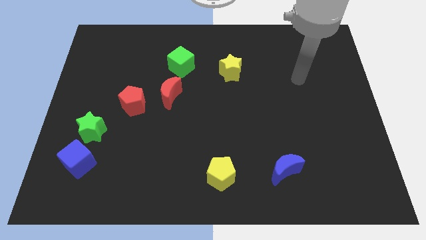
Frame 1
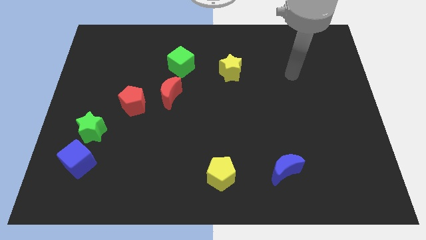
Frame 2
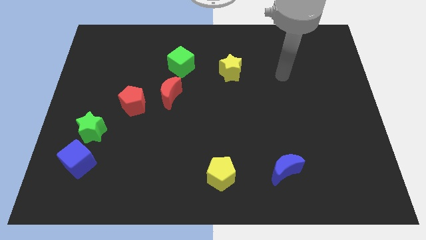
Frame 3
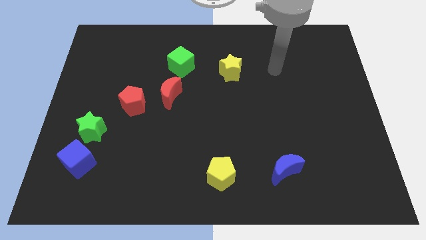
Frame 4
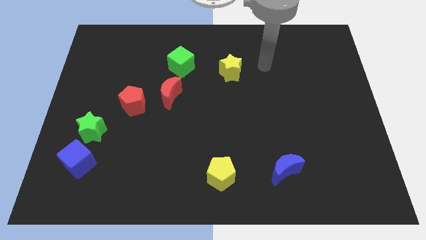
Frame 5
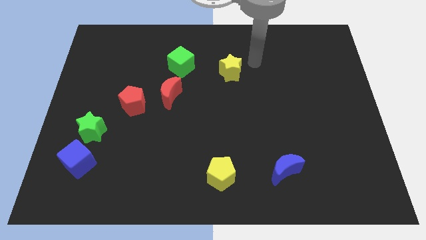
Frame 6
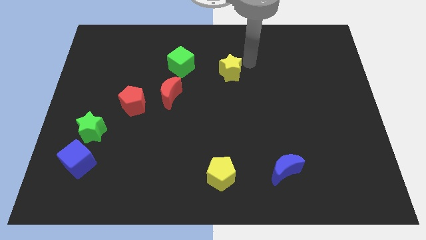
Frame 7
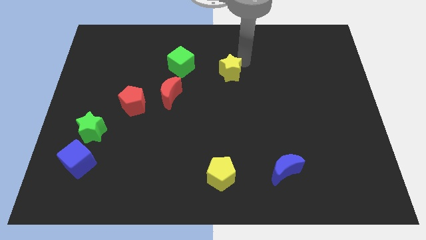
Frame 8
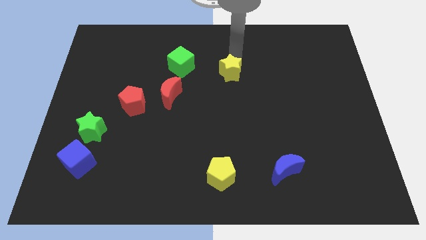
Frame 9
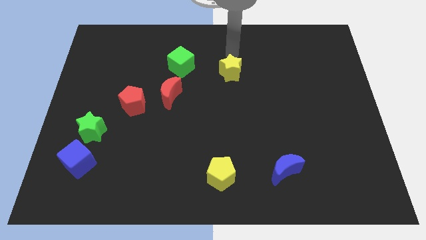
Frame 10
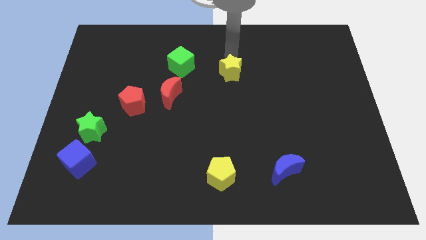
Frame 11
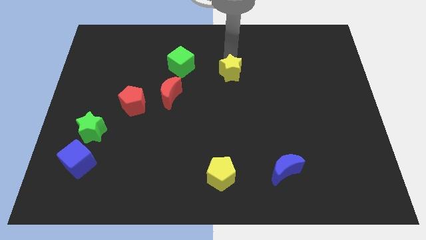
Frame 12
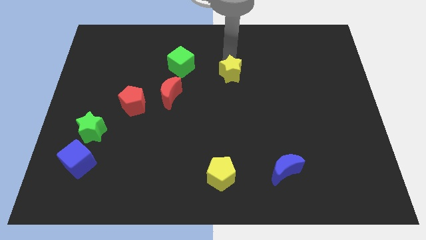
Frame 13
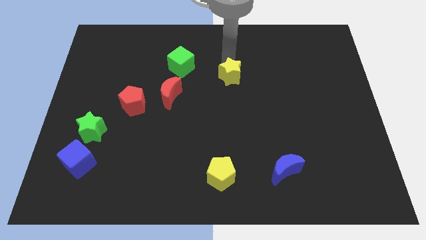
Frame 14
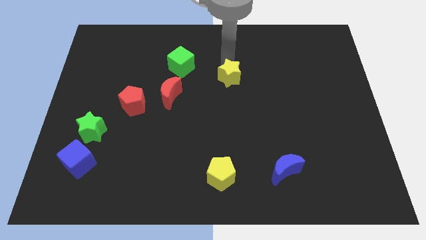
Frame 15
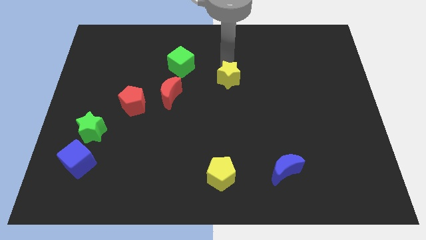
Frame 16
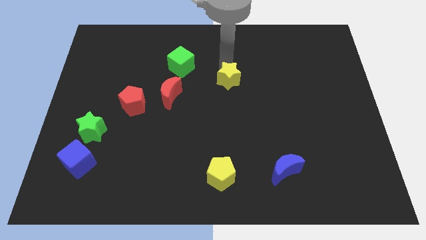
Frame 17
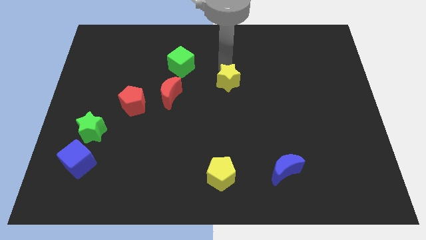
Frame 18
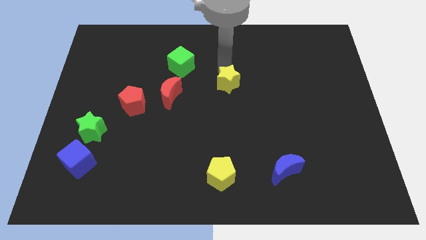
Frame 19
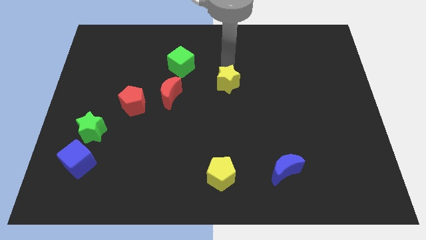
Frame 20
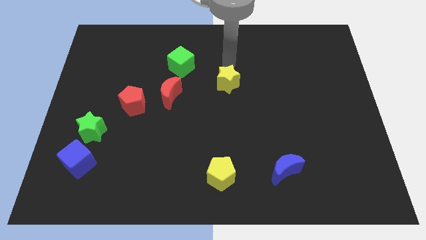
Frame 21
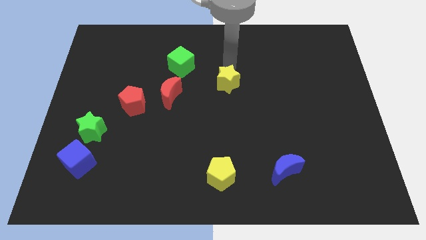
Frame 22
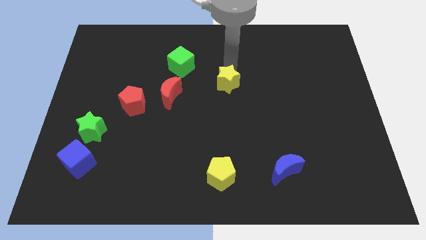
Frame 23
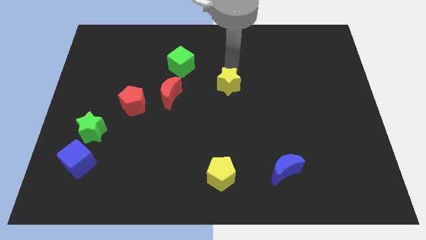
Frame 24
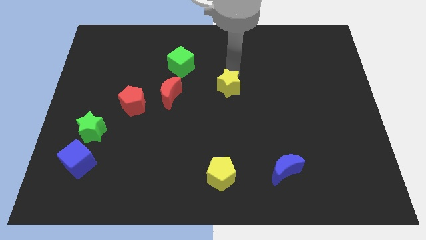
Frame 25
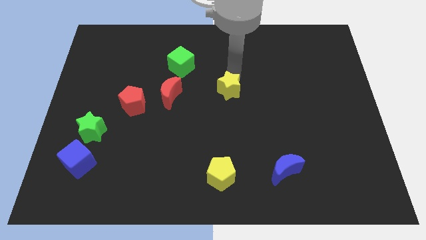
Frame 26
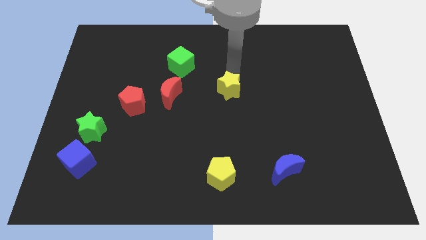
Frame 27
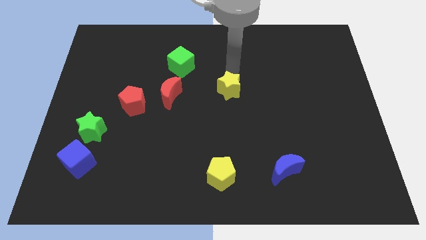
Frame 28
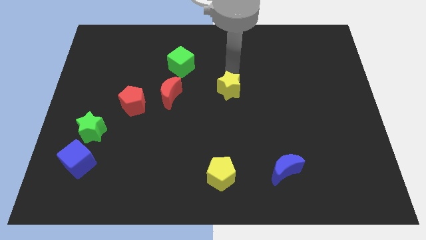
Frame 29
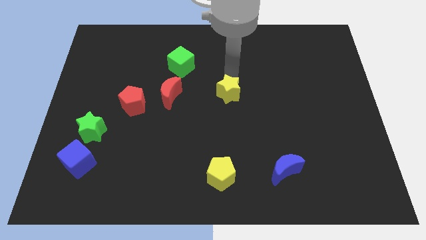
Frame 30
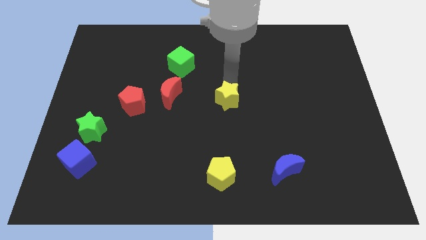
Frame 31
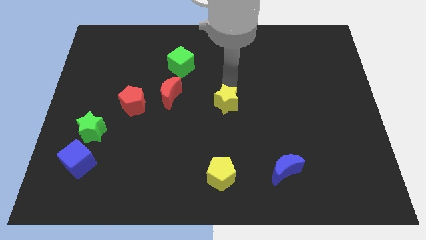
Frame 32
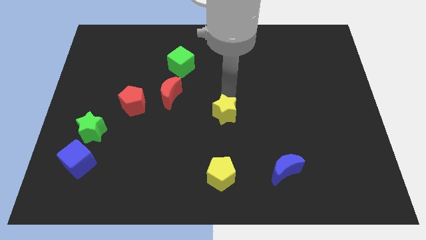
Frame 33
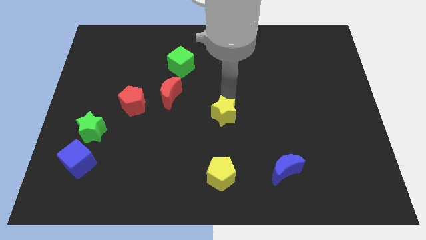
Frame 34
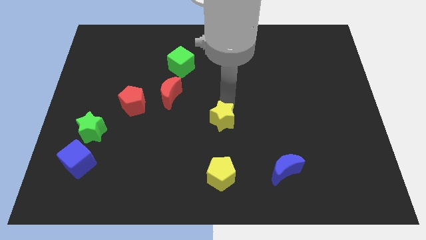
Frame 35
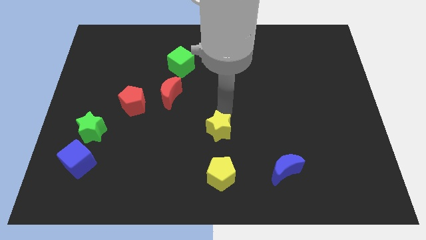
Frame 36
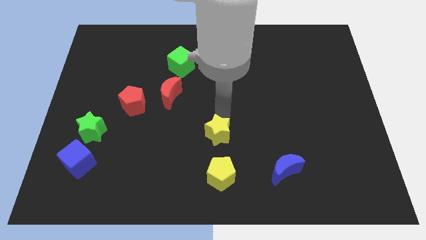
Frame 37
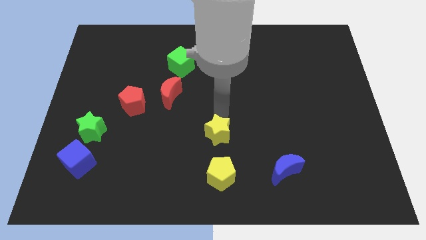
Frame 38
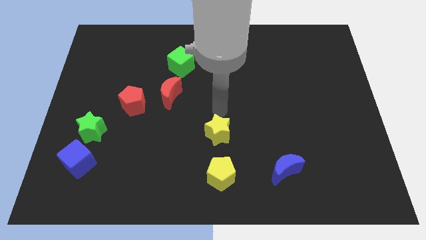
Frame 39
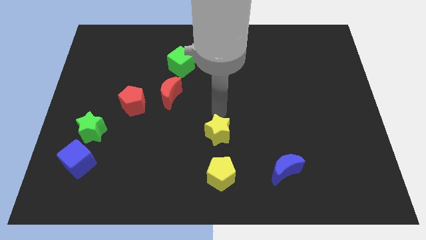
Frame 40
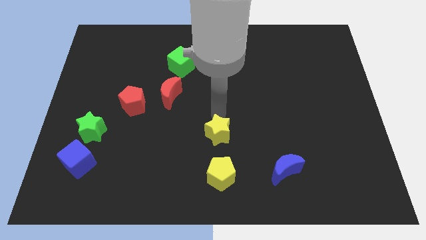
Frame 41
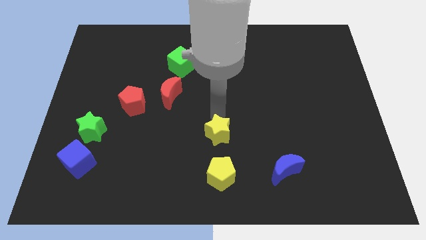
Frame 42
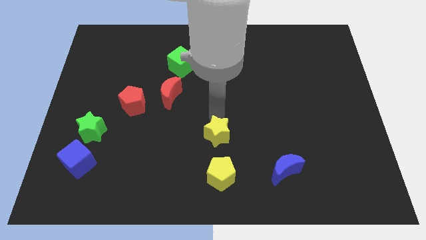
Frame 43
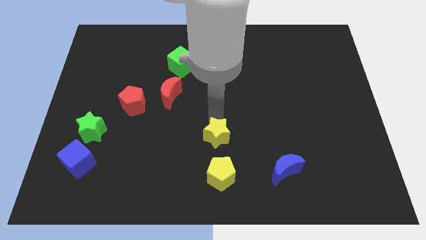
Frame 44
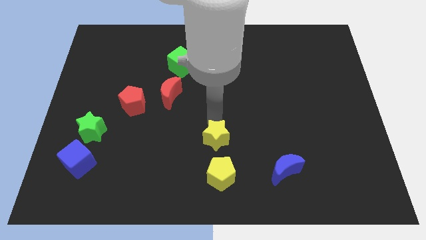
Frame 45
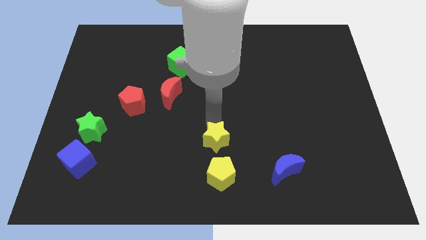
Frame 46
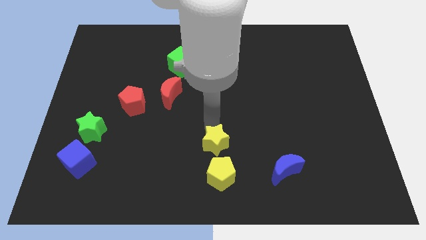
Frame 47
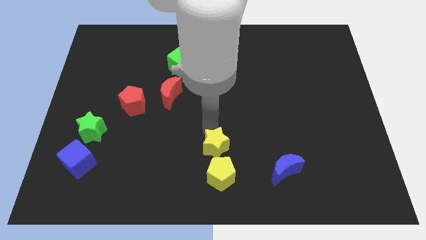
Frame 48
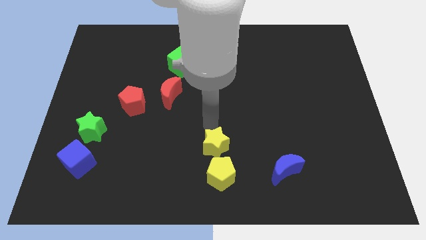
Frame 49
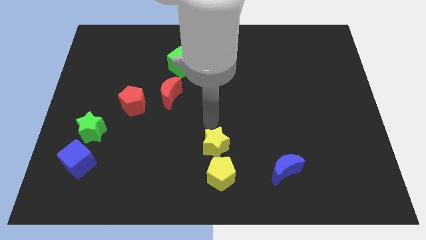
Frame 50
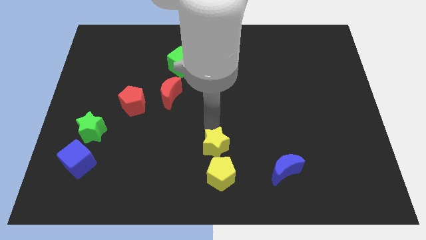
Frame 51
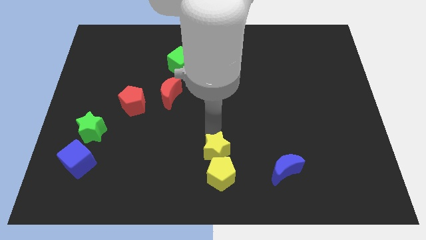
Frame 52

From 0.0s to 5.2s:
push the yellow star towards the yellow pentagon

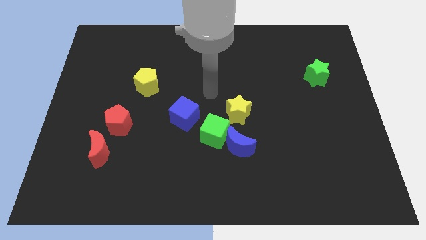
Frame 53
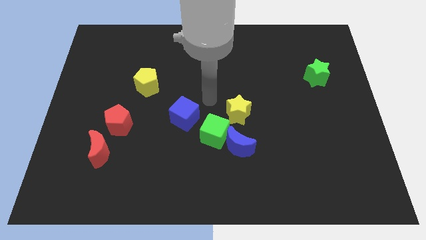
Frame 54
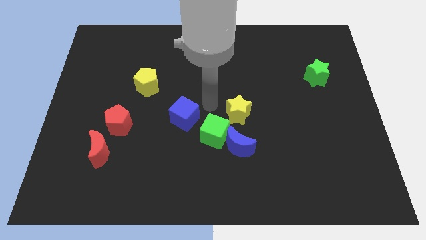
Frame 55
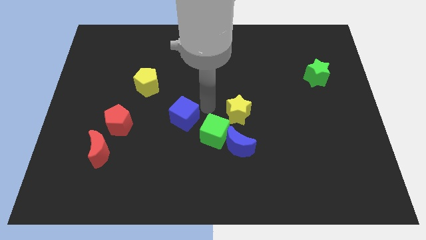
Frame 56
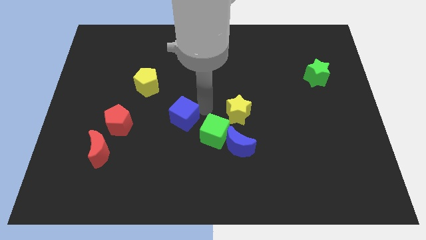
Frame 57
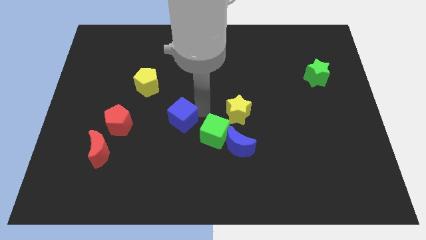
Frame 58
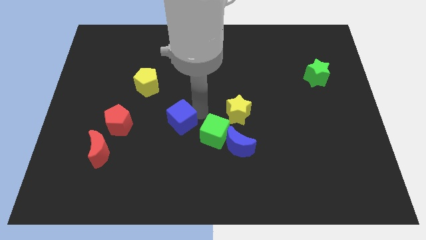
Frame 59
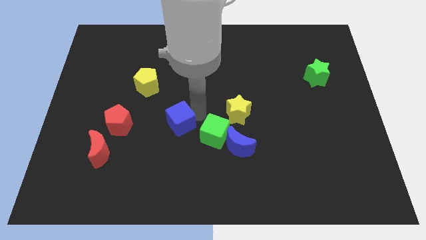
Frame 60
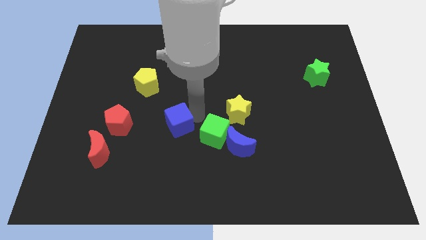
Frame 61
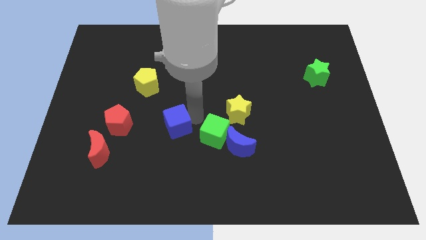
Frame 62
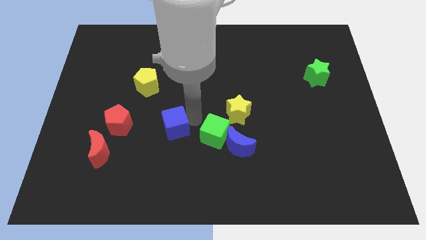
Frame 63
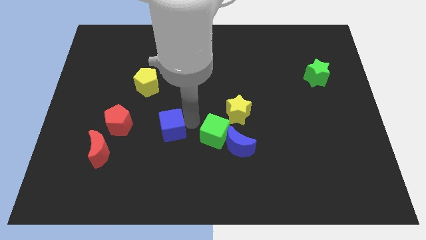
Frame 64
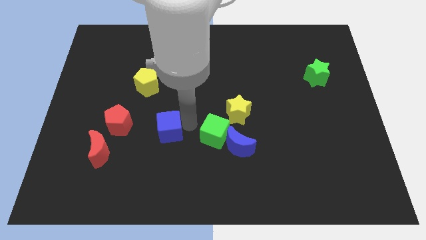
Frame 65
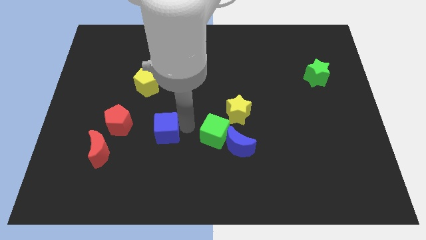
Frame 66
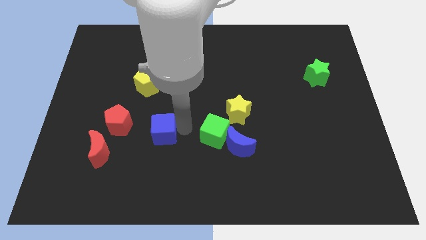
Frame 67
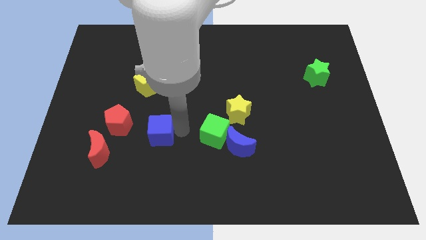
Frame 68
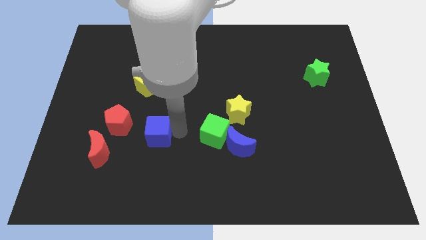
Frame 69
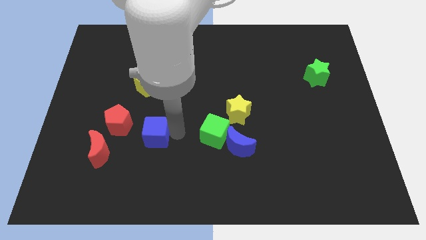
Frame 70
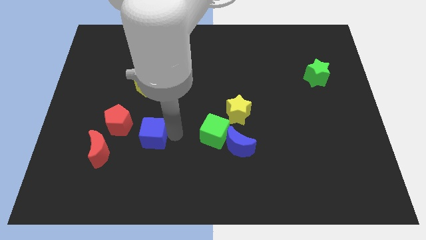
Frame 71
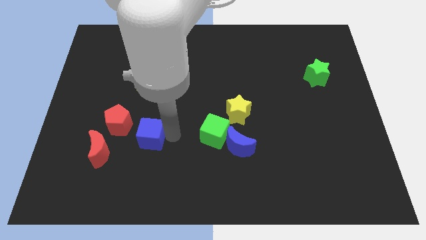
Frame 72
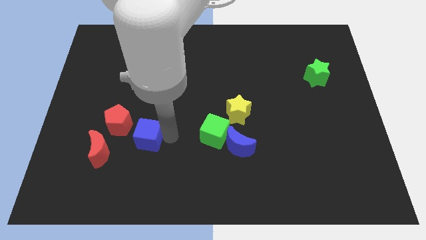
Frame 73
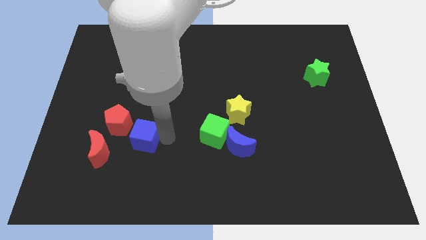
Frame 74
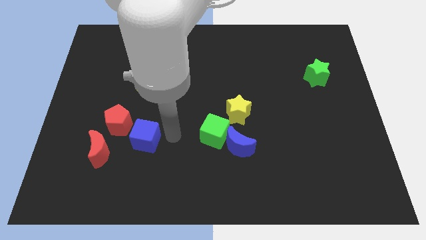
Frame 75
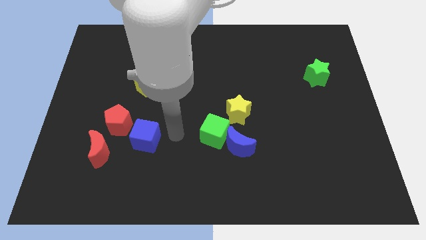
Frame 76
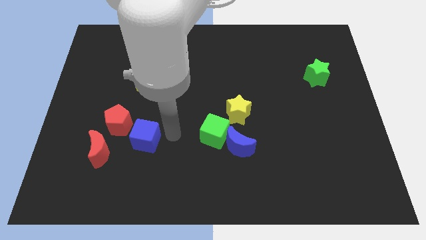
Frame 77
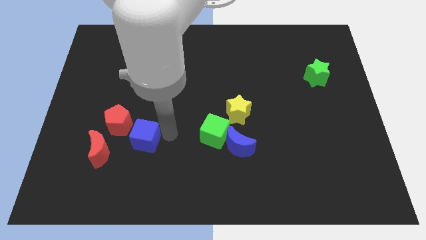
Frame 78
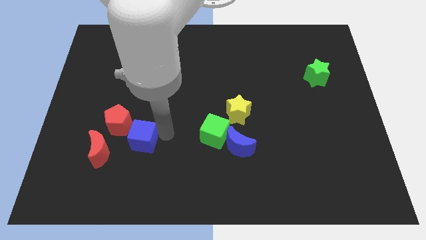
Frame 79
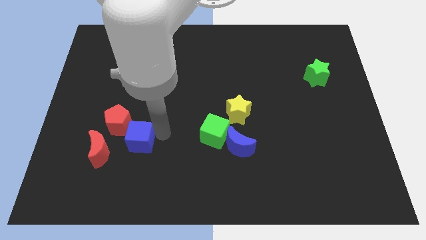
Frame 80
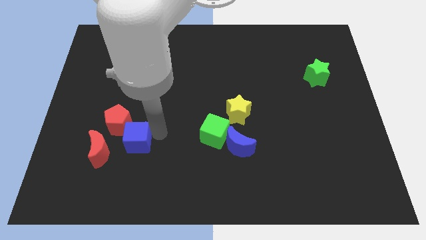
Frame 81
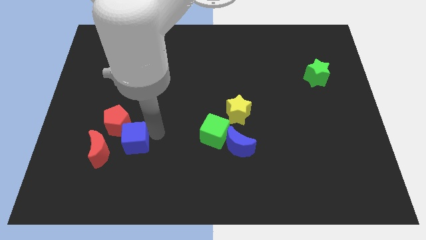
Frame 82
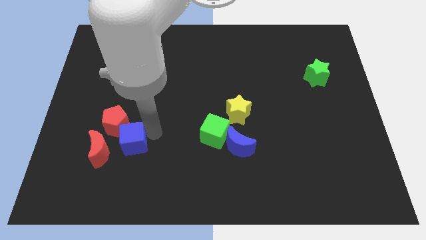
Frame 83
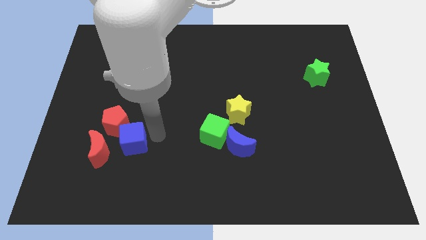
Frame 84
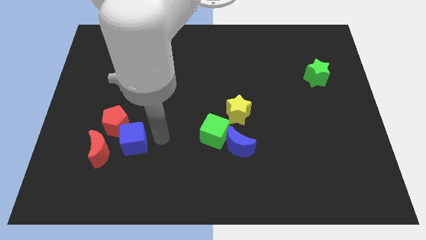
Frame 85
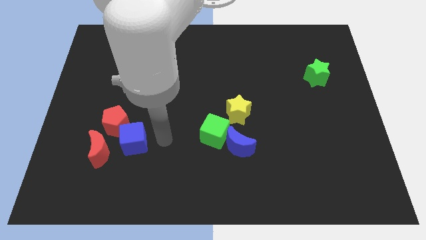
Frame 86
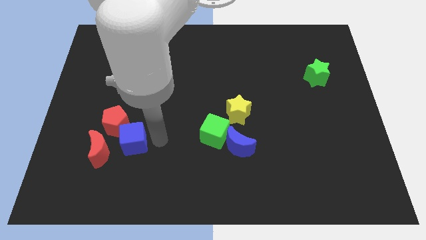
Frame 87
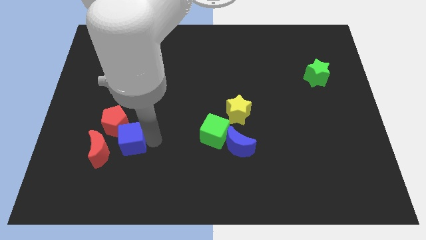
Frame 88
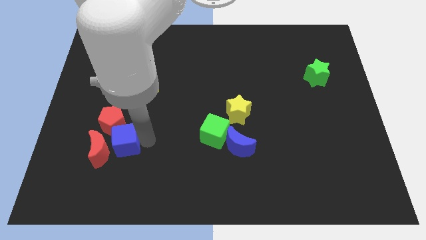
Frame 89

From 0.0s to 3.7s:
slide the blue cube to the red moon
